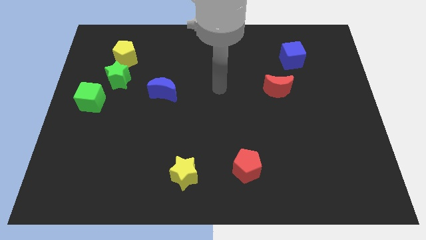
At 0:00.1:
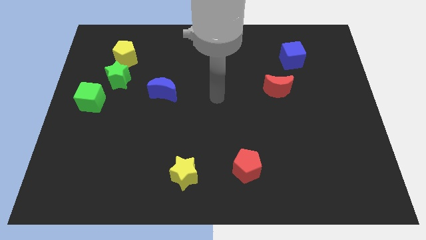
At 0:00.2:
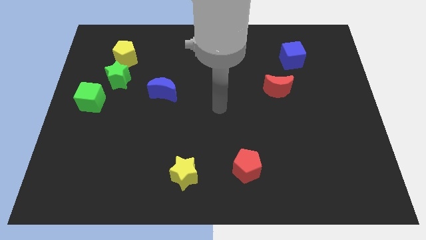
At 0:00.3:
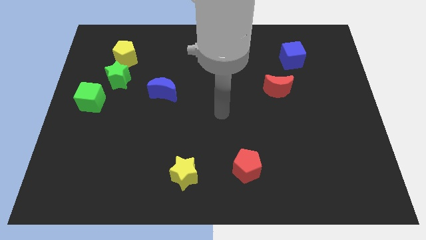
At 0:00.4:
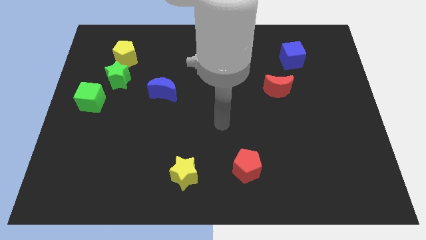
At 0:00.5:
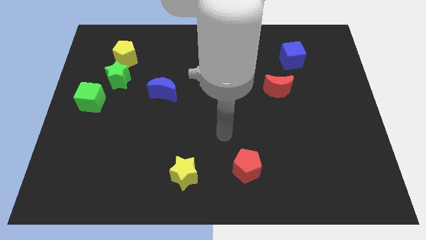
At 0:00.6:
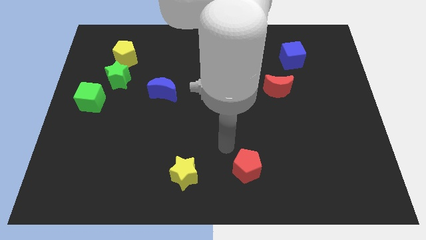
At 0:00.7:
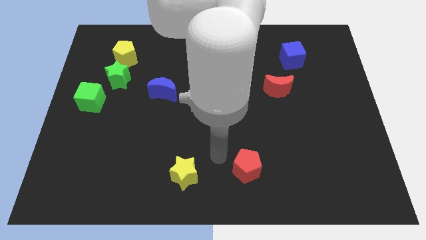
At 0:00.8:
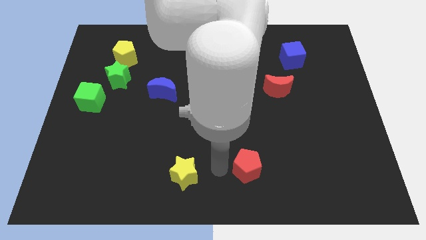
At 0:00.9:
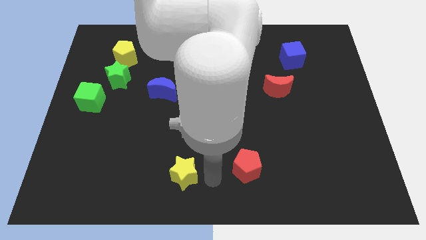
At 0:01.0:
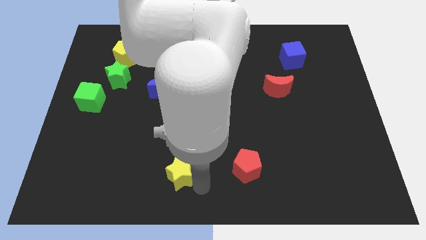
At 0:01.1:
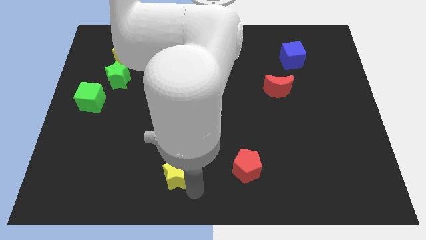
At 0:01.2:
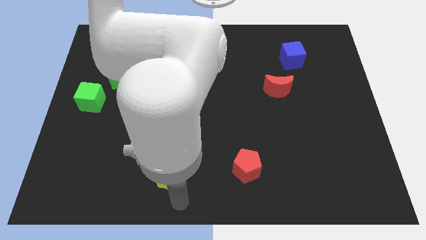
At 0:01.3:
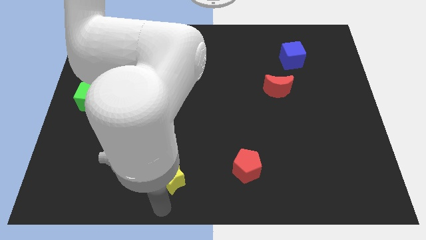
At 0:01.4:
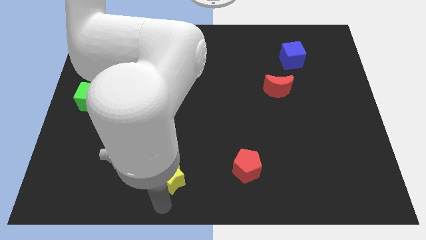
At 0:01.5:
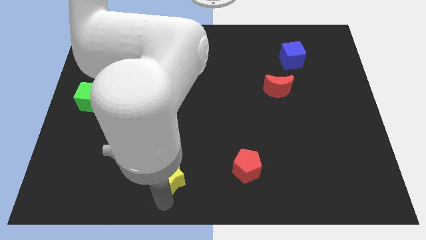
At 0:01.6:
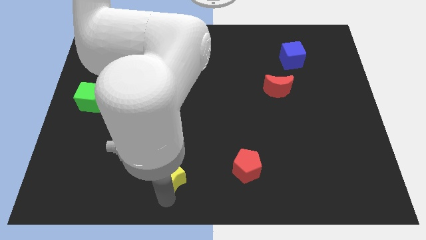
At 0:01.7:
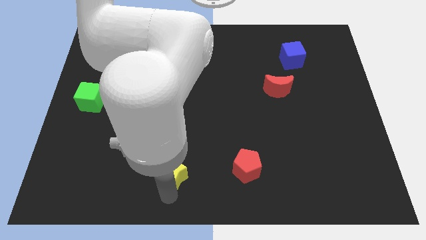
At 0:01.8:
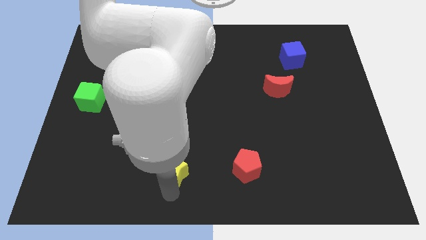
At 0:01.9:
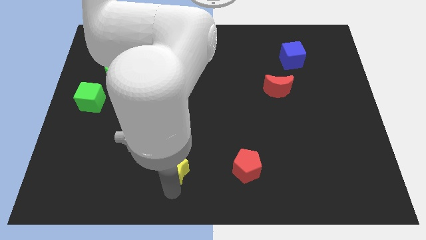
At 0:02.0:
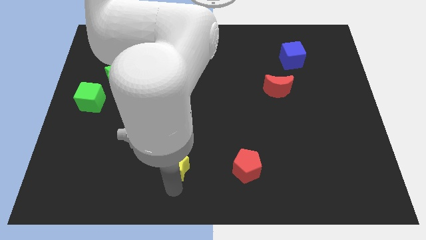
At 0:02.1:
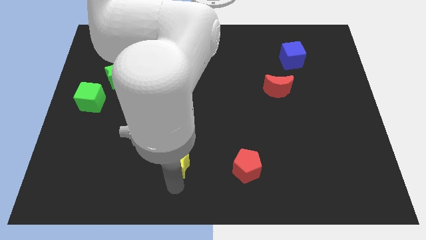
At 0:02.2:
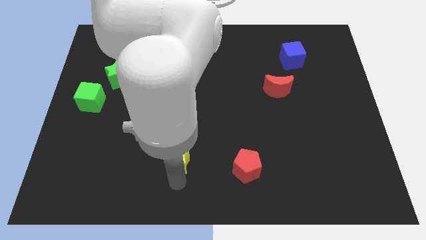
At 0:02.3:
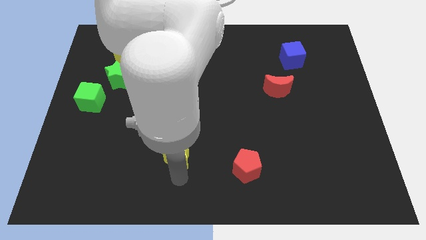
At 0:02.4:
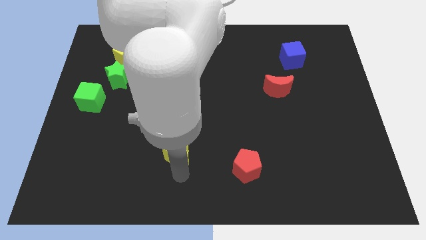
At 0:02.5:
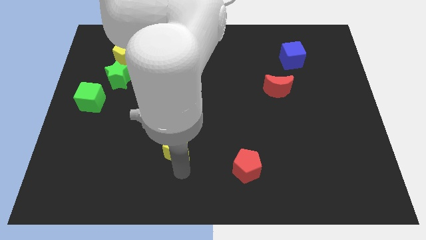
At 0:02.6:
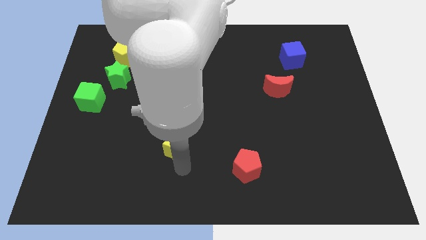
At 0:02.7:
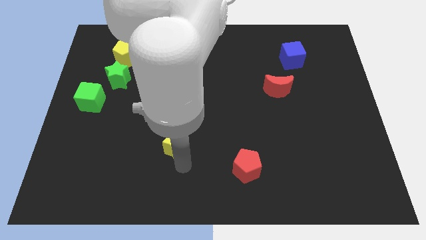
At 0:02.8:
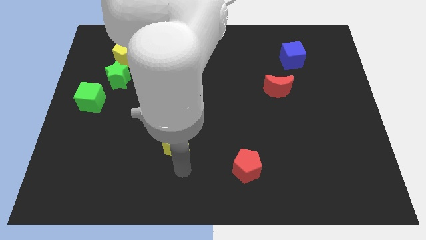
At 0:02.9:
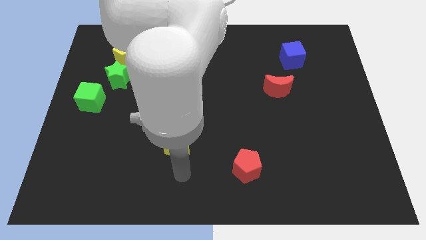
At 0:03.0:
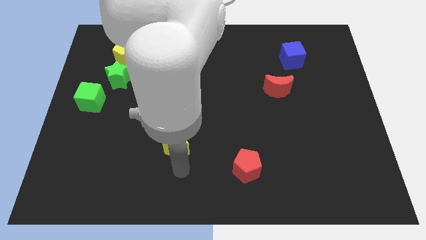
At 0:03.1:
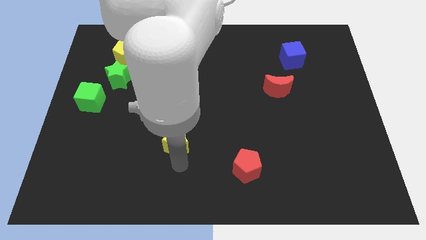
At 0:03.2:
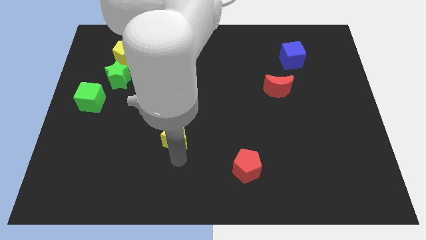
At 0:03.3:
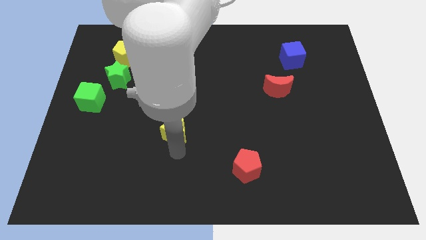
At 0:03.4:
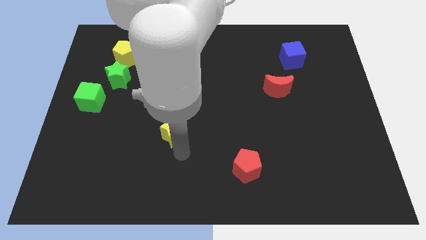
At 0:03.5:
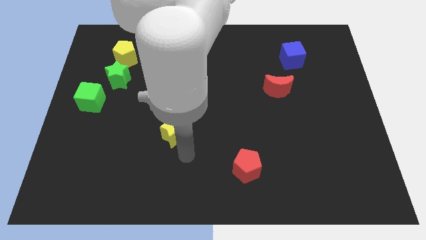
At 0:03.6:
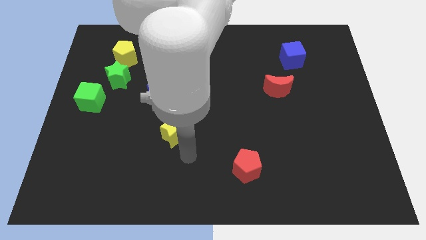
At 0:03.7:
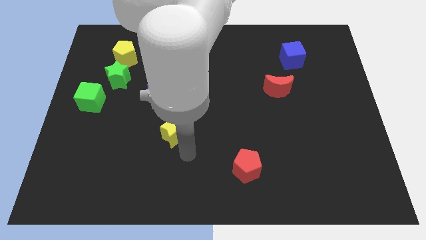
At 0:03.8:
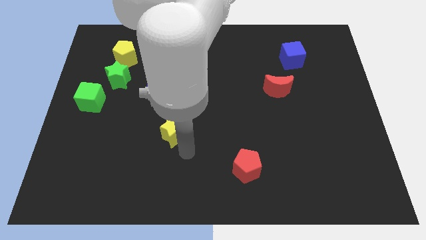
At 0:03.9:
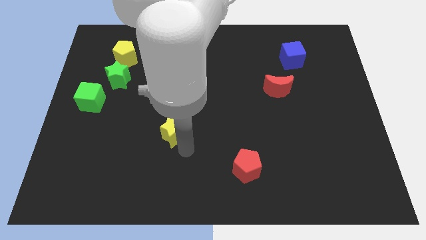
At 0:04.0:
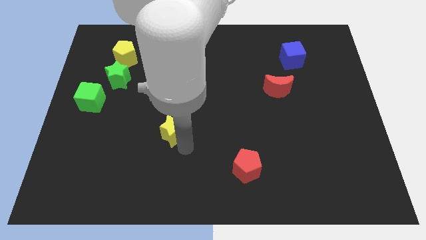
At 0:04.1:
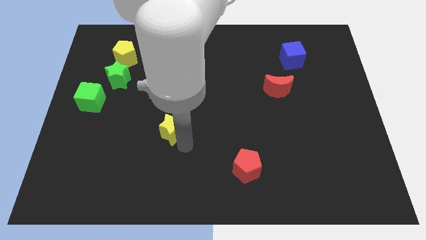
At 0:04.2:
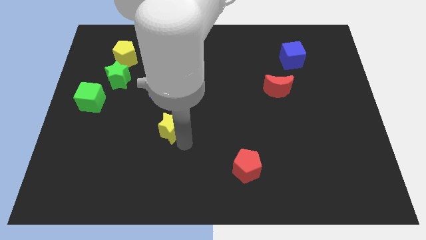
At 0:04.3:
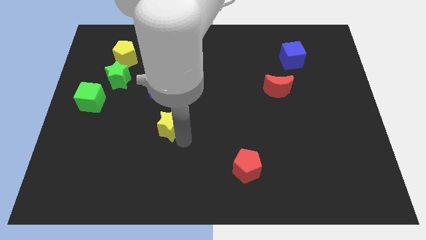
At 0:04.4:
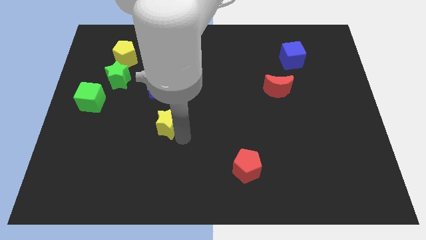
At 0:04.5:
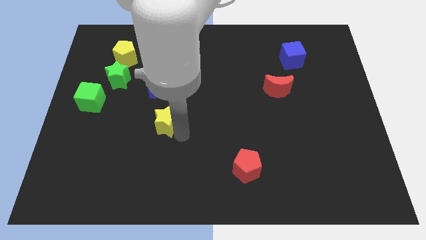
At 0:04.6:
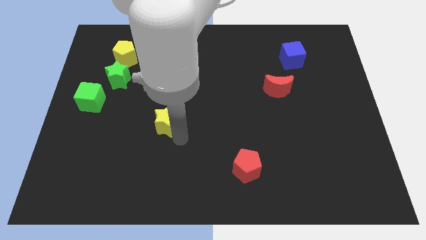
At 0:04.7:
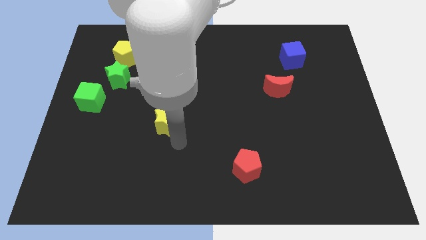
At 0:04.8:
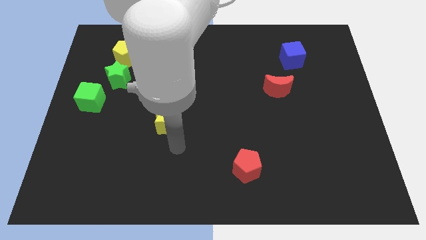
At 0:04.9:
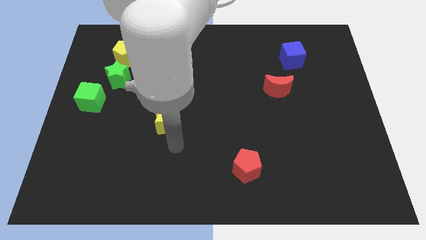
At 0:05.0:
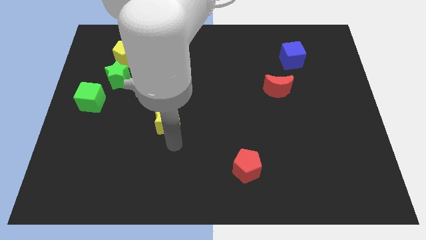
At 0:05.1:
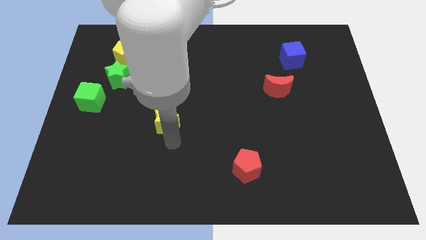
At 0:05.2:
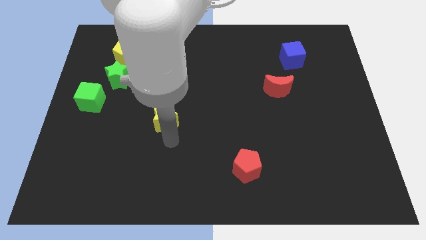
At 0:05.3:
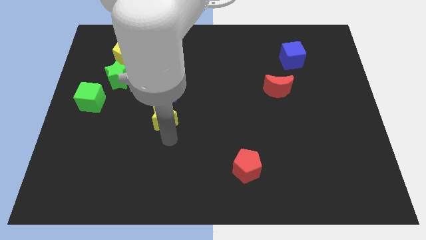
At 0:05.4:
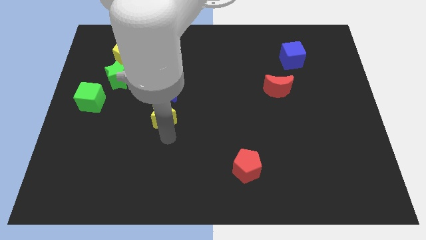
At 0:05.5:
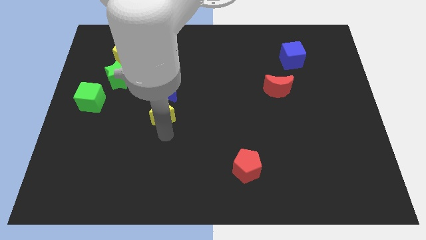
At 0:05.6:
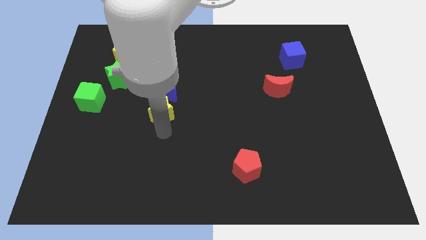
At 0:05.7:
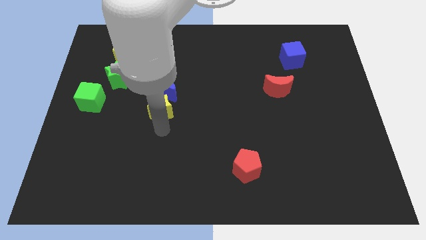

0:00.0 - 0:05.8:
put the yellow star close to the blue moon

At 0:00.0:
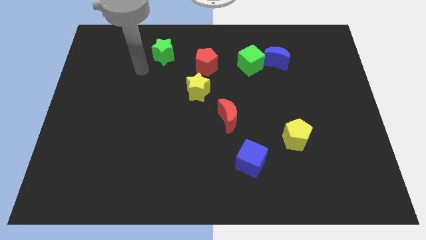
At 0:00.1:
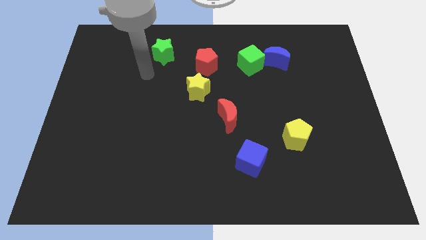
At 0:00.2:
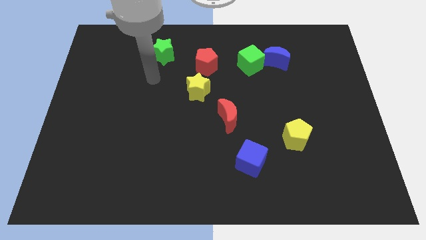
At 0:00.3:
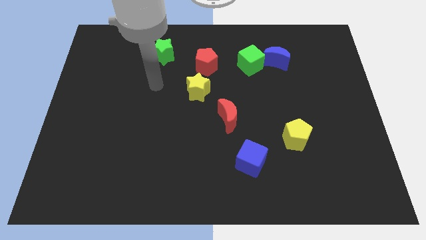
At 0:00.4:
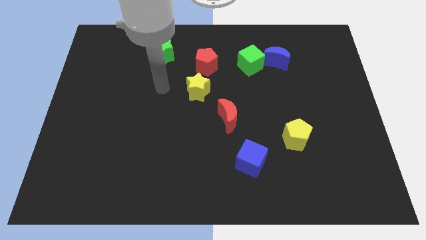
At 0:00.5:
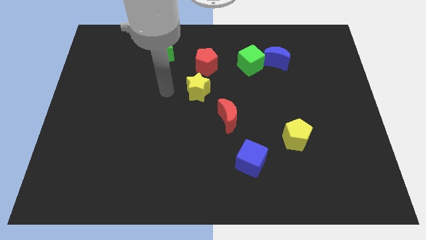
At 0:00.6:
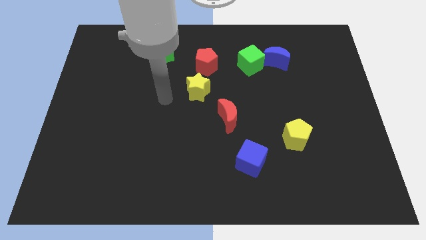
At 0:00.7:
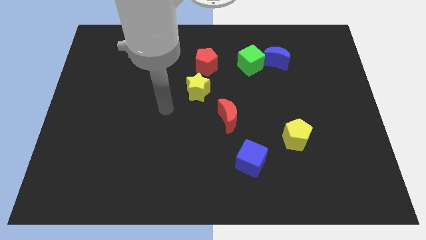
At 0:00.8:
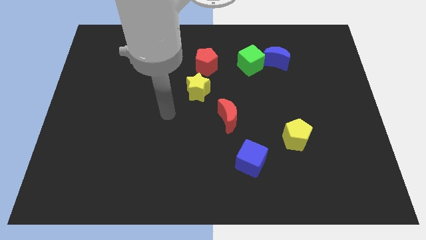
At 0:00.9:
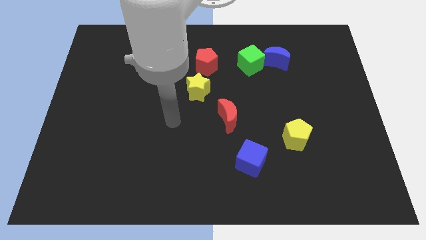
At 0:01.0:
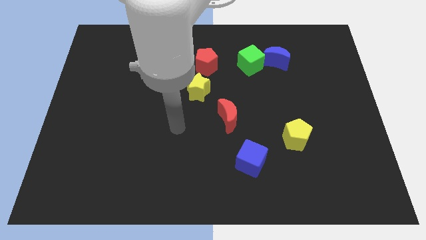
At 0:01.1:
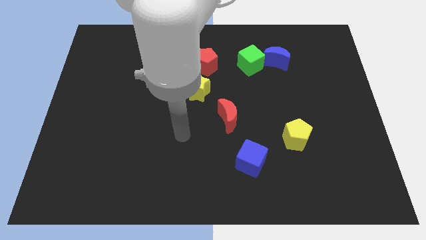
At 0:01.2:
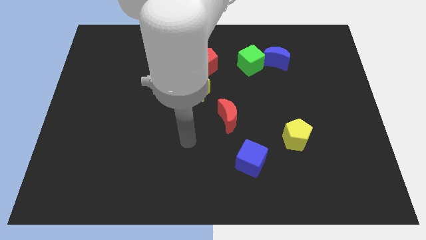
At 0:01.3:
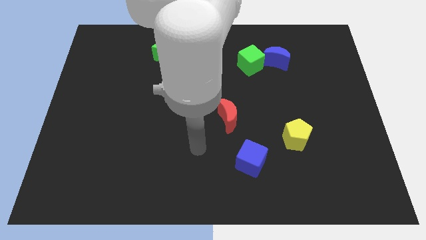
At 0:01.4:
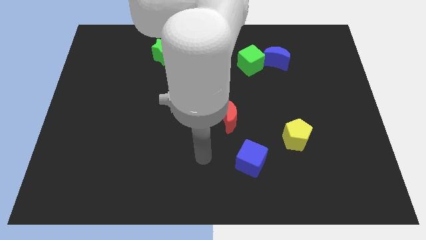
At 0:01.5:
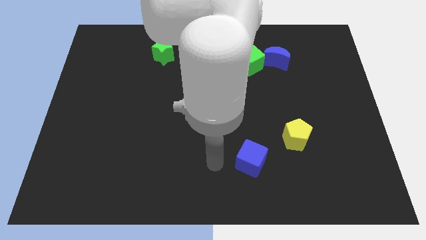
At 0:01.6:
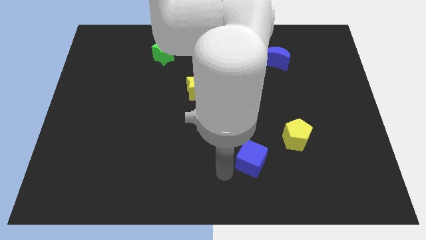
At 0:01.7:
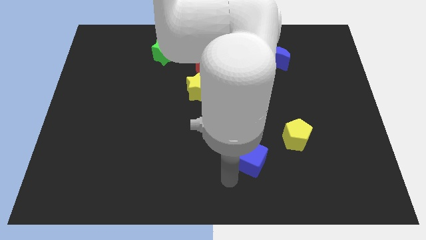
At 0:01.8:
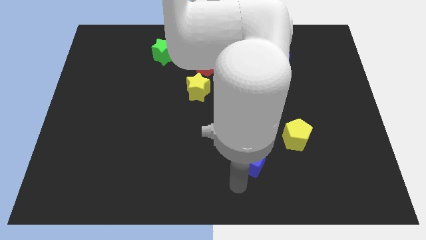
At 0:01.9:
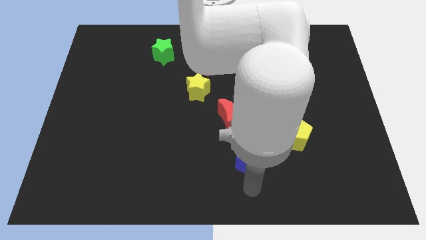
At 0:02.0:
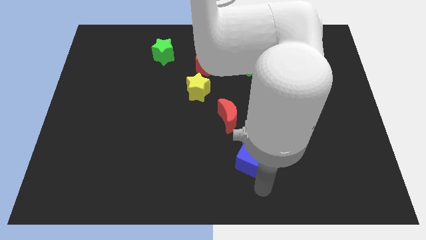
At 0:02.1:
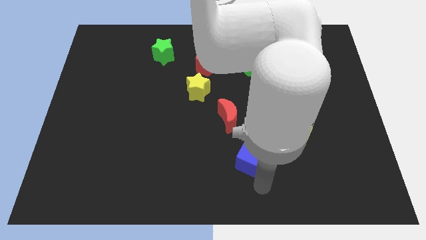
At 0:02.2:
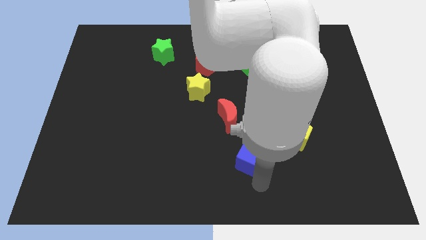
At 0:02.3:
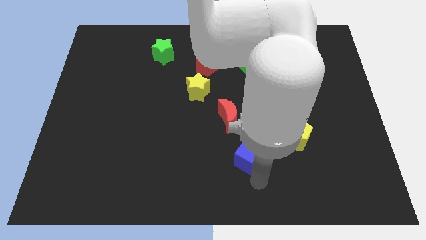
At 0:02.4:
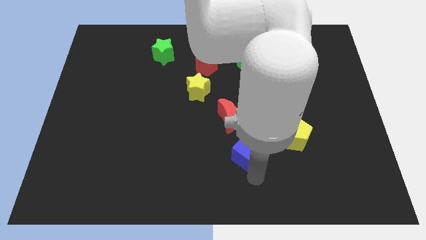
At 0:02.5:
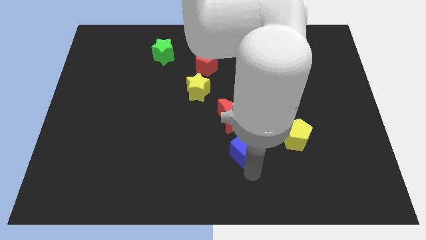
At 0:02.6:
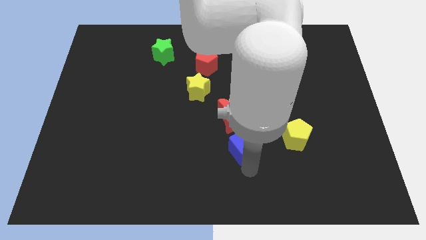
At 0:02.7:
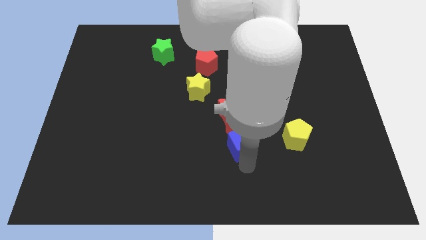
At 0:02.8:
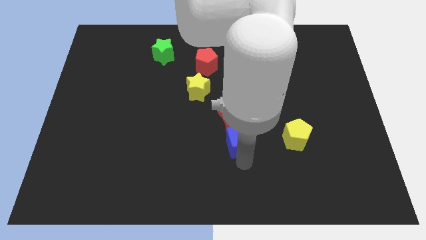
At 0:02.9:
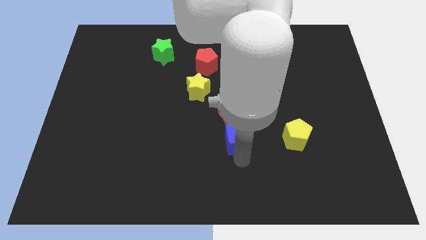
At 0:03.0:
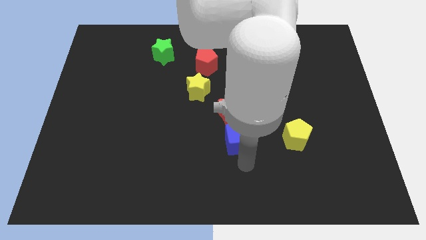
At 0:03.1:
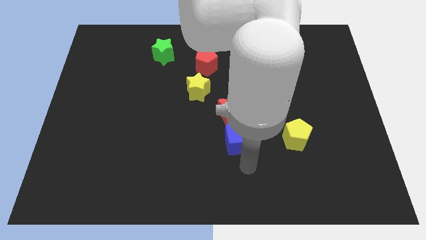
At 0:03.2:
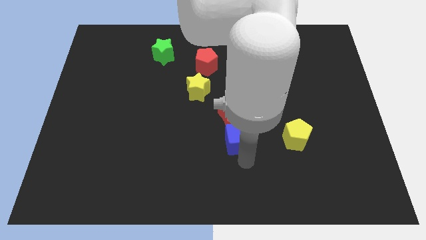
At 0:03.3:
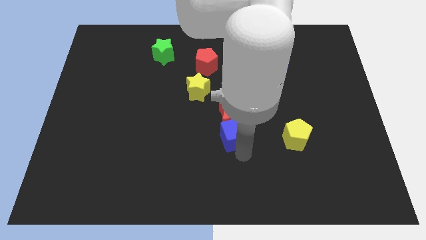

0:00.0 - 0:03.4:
move the blue cube next to the red moon
